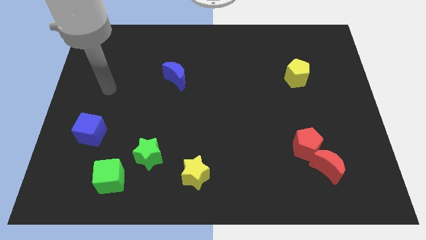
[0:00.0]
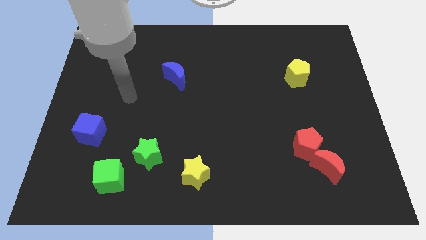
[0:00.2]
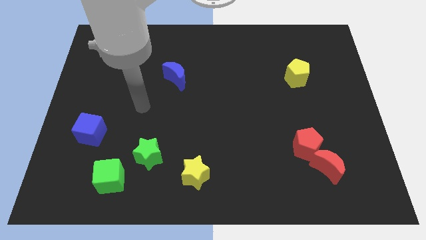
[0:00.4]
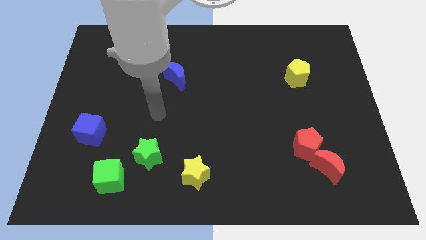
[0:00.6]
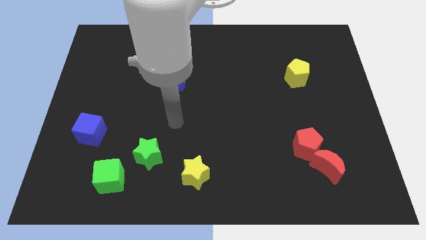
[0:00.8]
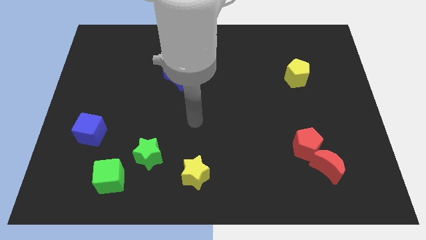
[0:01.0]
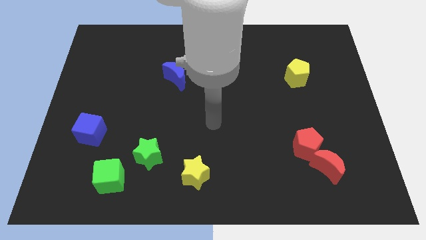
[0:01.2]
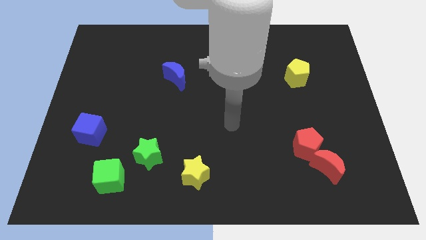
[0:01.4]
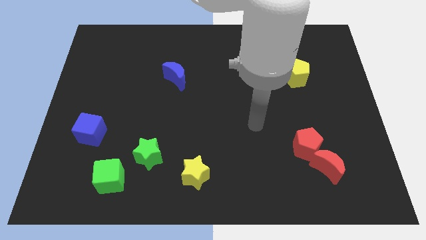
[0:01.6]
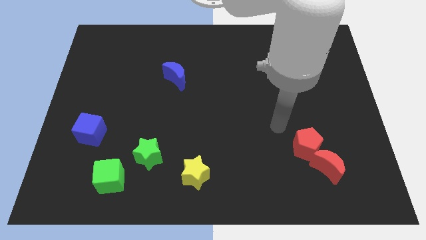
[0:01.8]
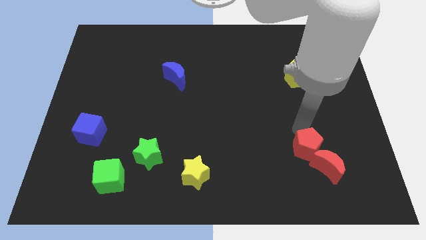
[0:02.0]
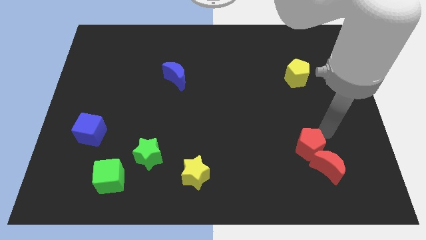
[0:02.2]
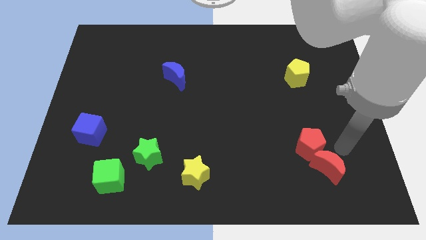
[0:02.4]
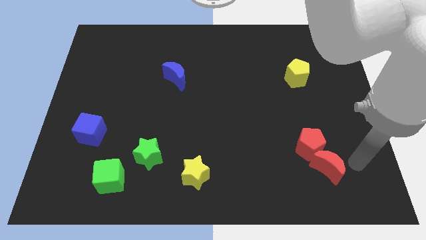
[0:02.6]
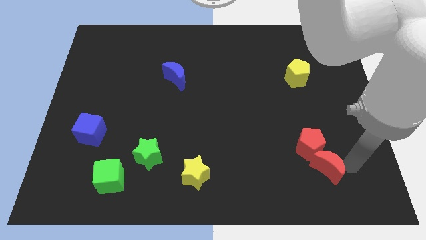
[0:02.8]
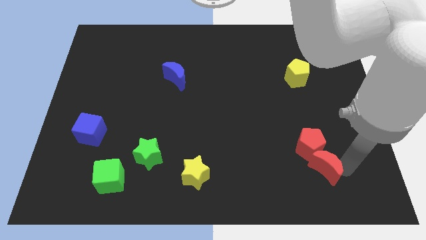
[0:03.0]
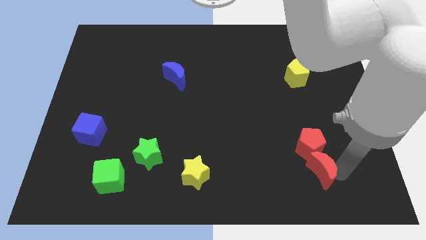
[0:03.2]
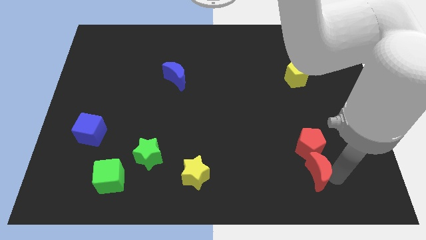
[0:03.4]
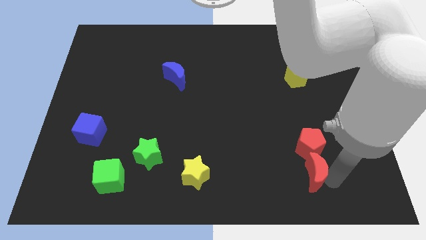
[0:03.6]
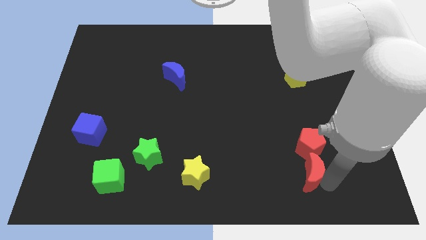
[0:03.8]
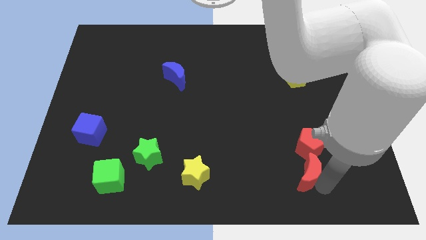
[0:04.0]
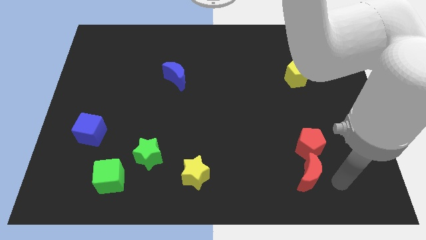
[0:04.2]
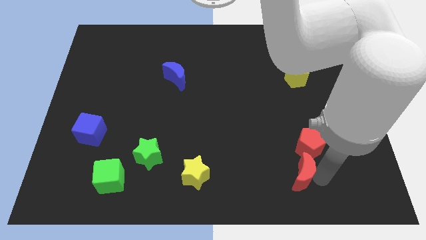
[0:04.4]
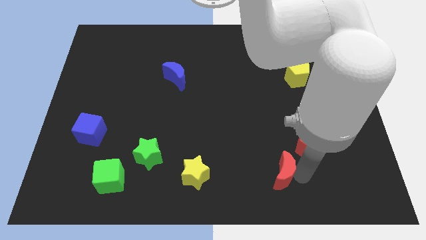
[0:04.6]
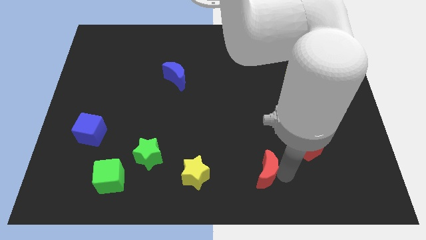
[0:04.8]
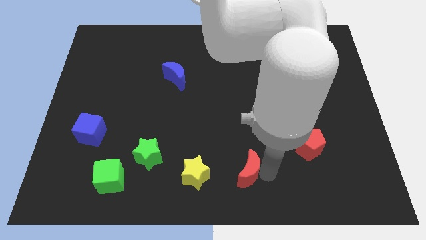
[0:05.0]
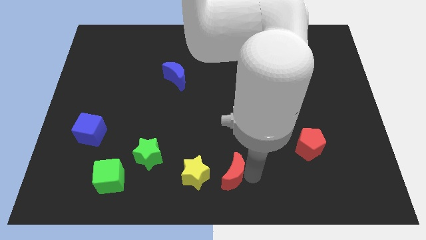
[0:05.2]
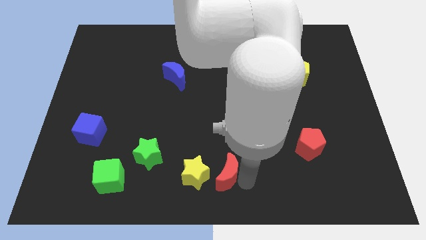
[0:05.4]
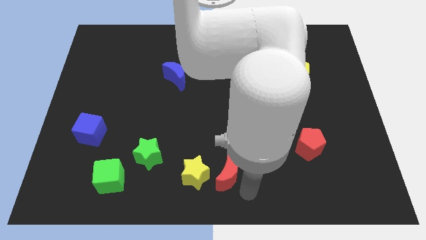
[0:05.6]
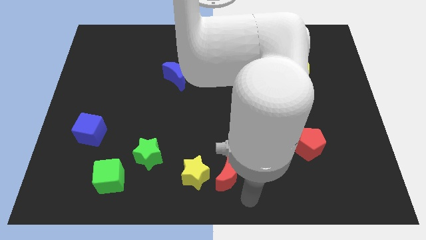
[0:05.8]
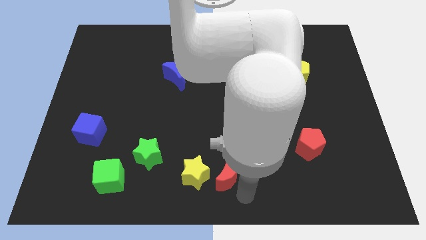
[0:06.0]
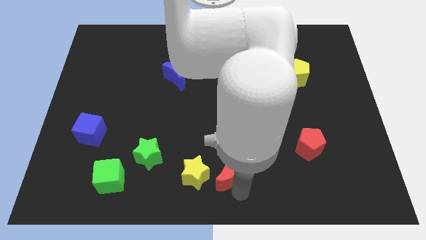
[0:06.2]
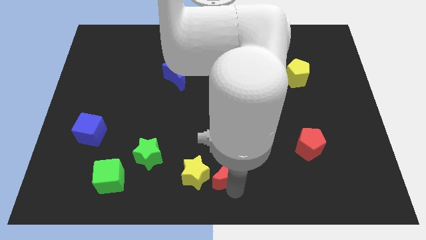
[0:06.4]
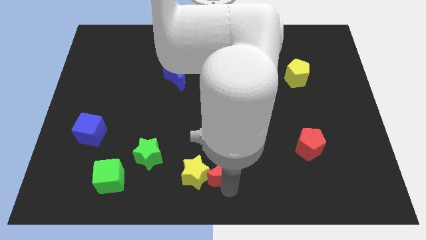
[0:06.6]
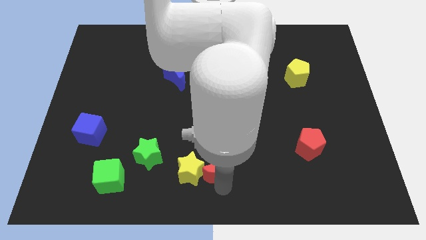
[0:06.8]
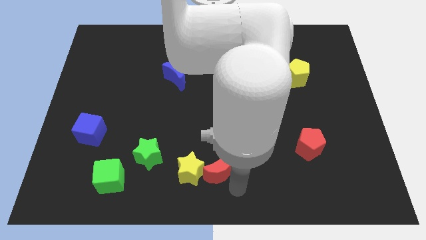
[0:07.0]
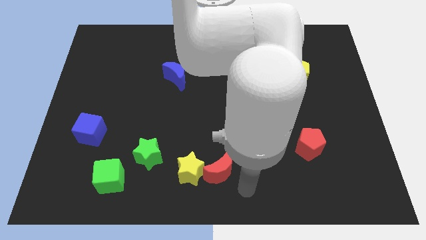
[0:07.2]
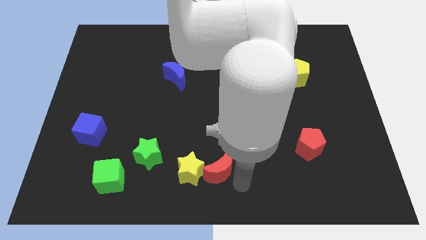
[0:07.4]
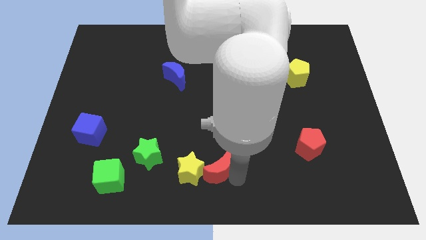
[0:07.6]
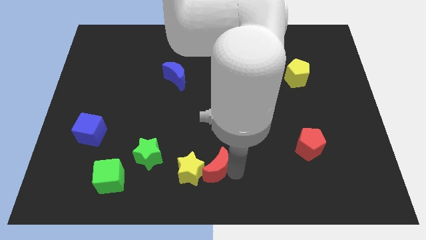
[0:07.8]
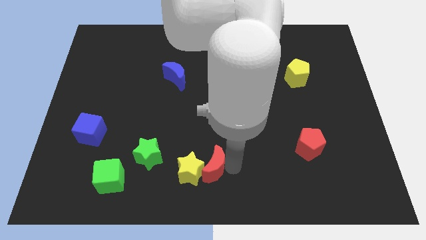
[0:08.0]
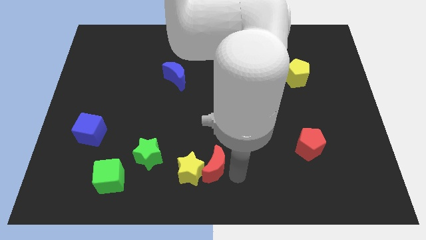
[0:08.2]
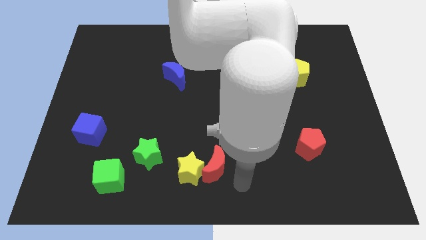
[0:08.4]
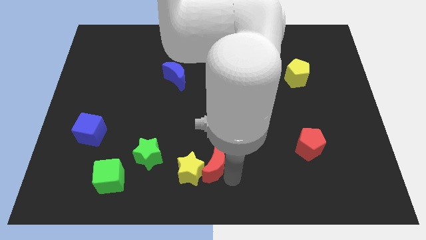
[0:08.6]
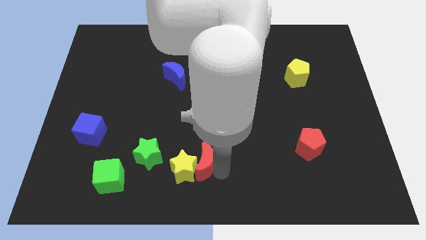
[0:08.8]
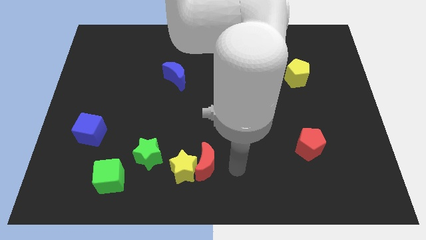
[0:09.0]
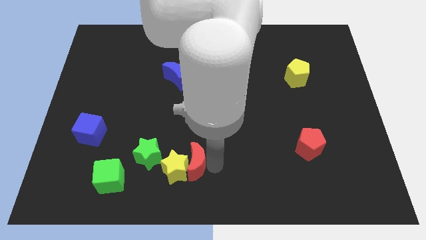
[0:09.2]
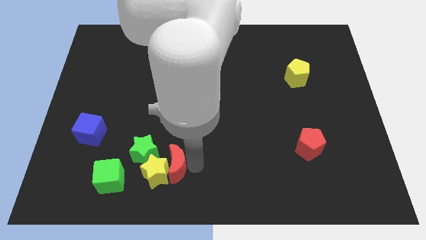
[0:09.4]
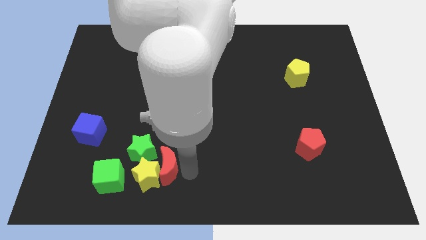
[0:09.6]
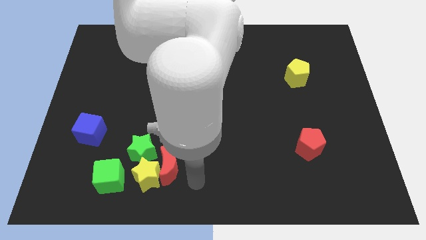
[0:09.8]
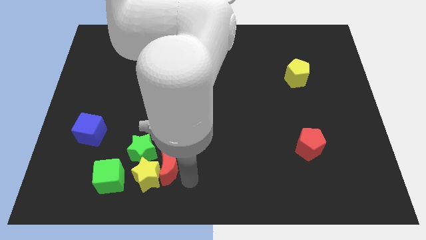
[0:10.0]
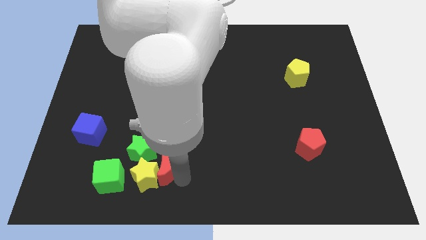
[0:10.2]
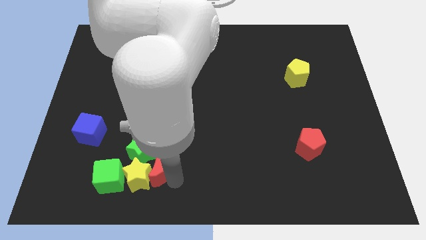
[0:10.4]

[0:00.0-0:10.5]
move the red moon to the green star

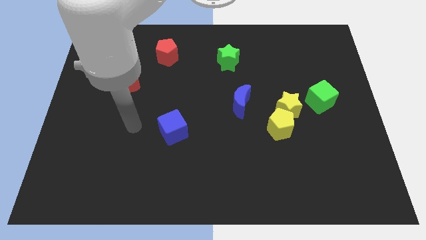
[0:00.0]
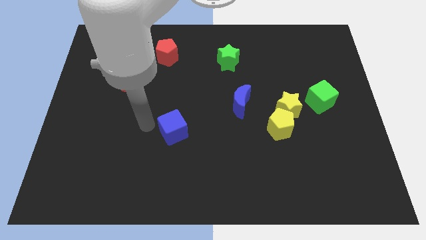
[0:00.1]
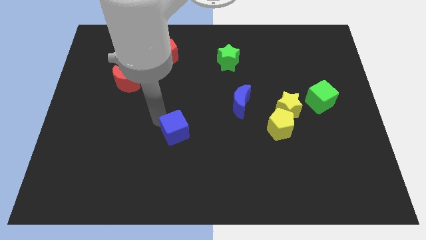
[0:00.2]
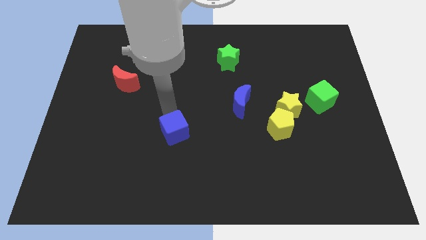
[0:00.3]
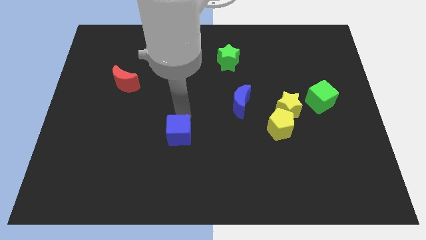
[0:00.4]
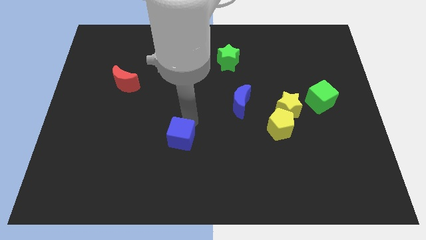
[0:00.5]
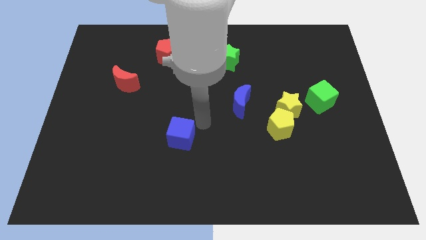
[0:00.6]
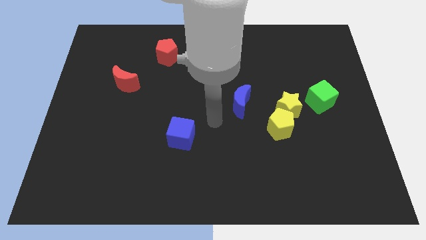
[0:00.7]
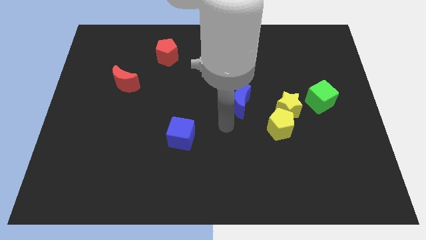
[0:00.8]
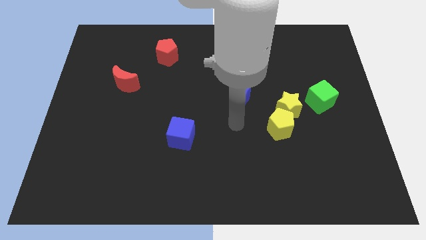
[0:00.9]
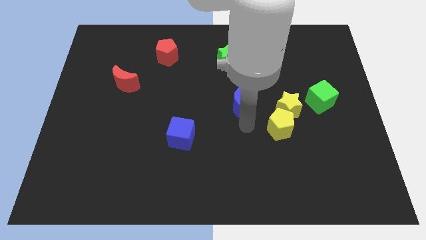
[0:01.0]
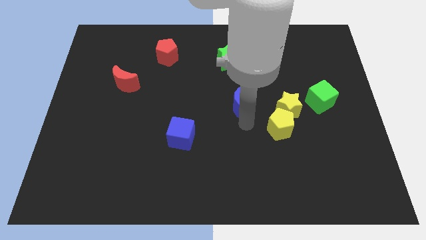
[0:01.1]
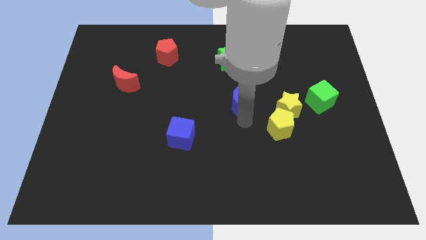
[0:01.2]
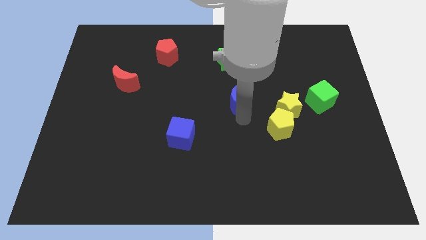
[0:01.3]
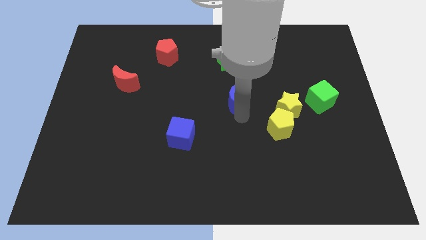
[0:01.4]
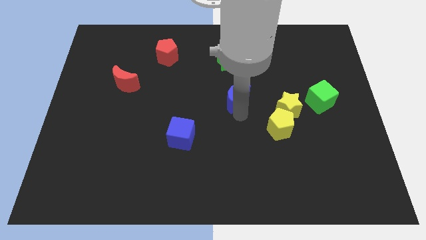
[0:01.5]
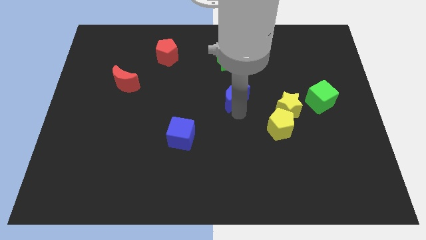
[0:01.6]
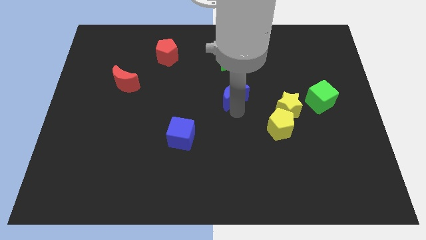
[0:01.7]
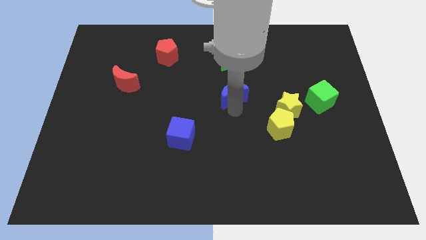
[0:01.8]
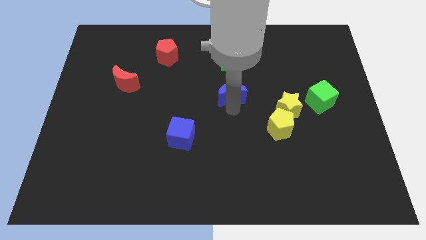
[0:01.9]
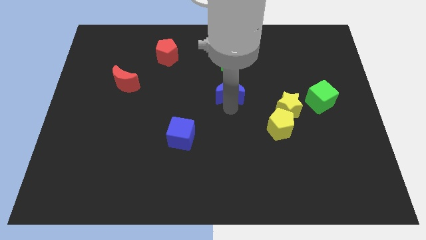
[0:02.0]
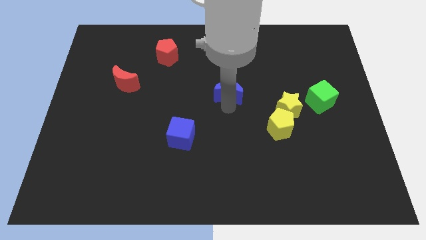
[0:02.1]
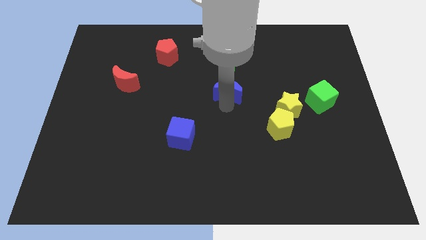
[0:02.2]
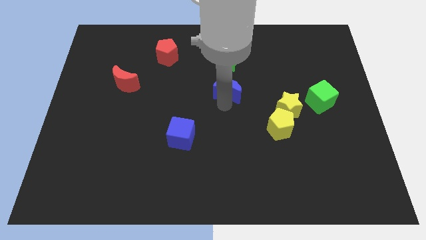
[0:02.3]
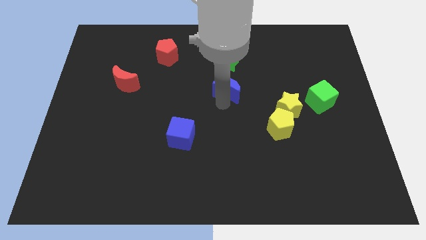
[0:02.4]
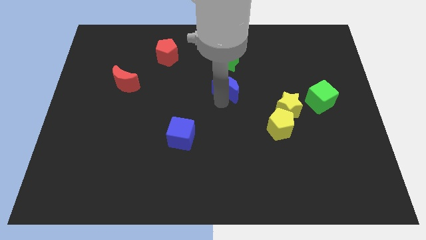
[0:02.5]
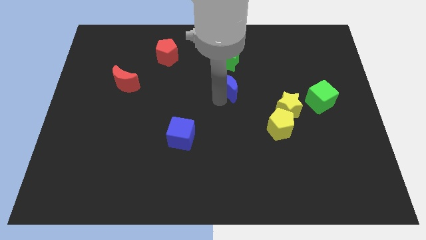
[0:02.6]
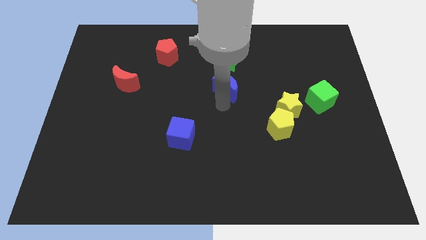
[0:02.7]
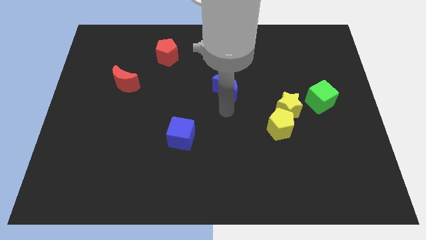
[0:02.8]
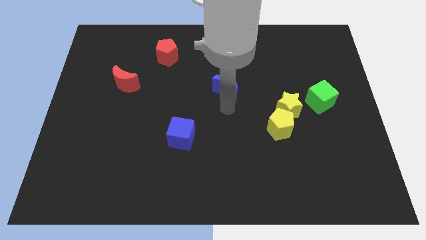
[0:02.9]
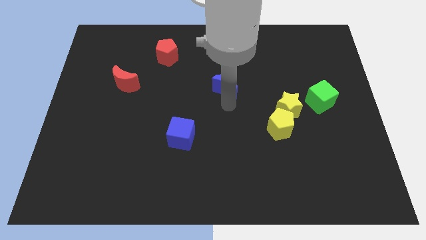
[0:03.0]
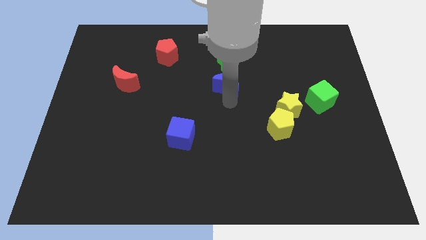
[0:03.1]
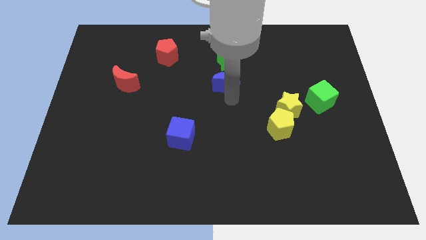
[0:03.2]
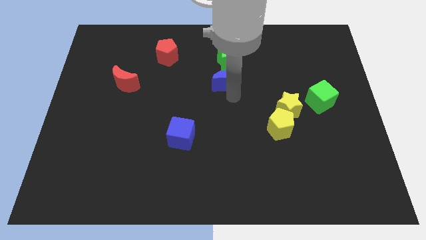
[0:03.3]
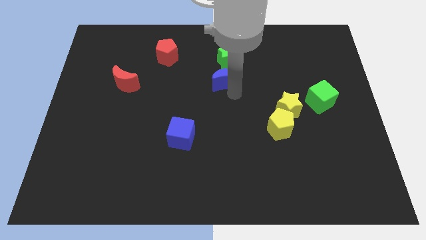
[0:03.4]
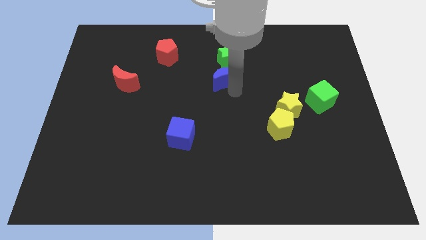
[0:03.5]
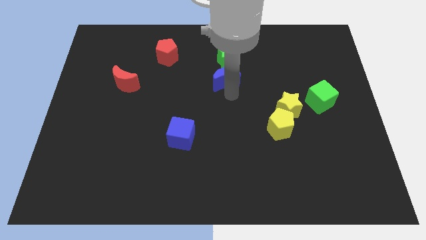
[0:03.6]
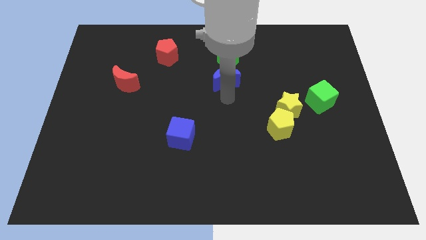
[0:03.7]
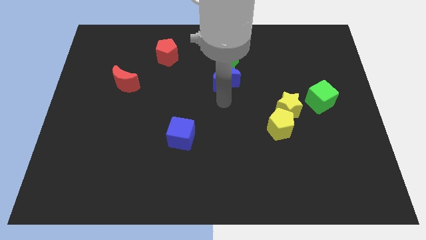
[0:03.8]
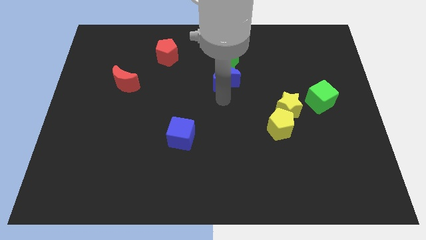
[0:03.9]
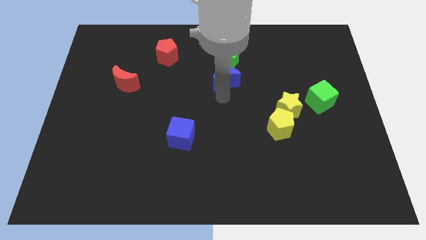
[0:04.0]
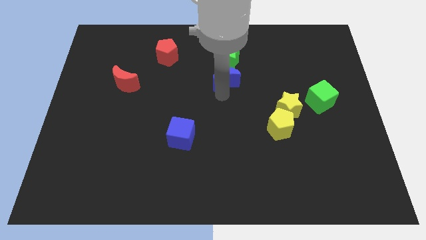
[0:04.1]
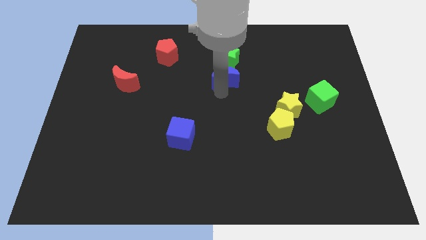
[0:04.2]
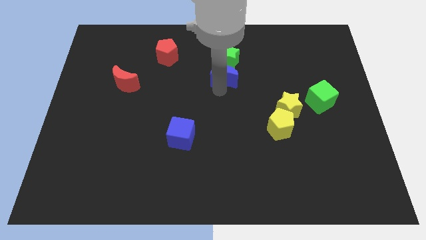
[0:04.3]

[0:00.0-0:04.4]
put the blue moon to the green star
